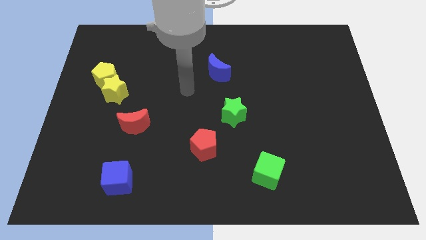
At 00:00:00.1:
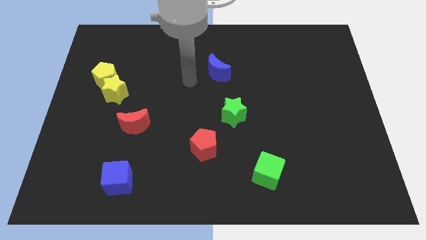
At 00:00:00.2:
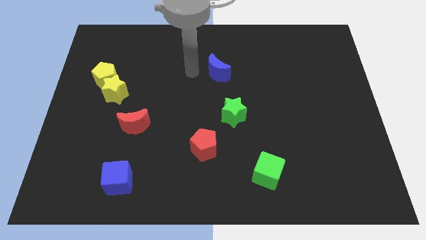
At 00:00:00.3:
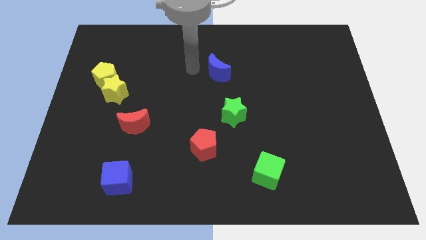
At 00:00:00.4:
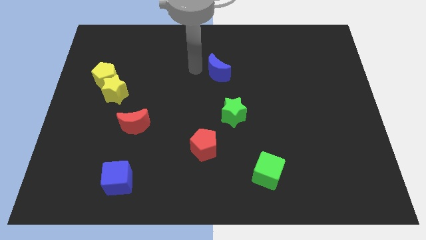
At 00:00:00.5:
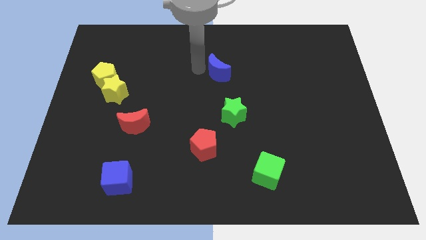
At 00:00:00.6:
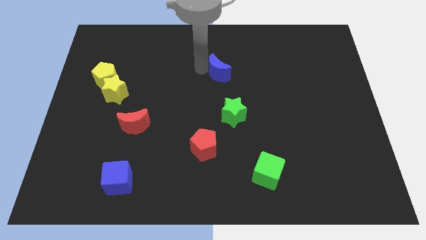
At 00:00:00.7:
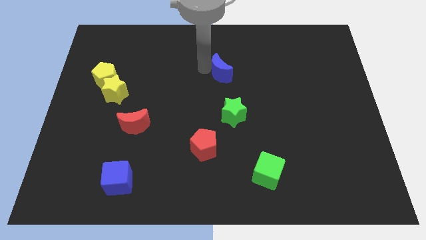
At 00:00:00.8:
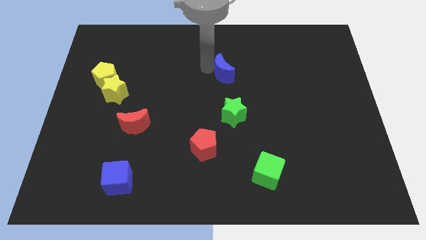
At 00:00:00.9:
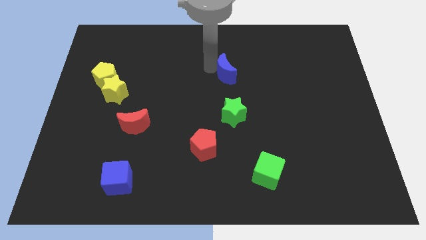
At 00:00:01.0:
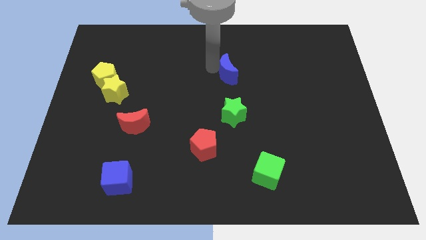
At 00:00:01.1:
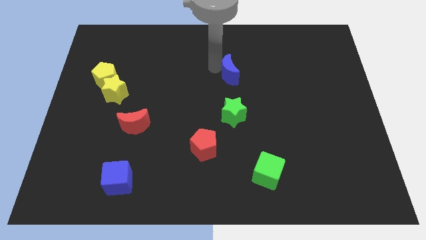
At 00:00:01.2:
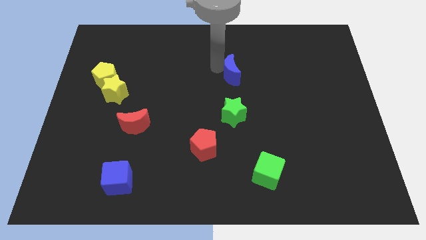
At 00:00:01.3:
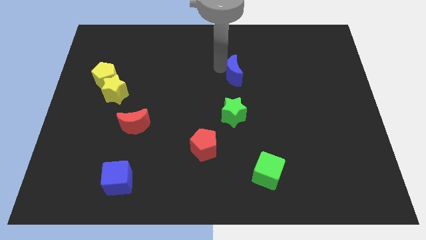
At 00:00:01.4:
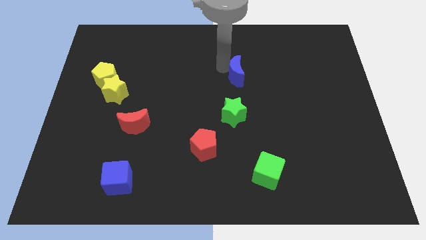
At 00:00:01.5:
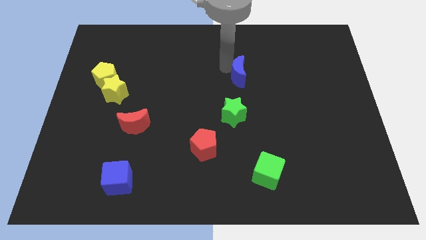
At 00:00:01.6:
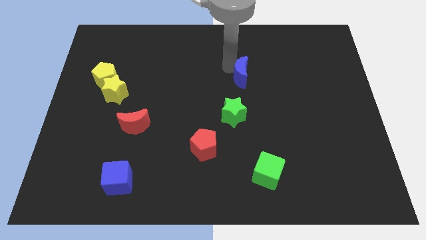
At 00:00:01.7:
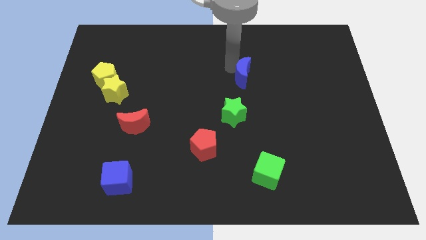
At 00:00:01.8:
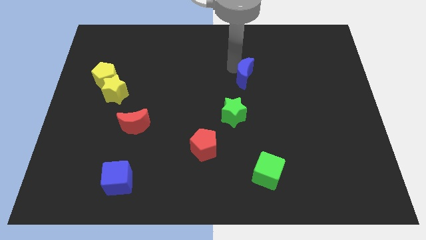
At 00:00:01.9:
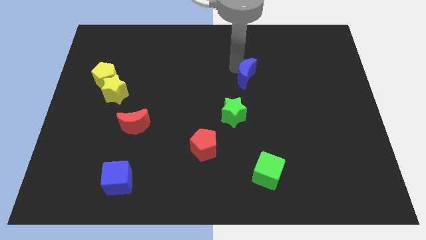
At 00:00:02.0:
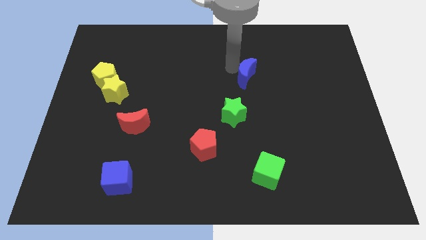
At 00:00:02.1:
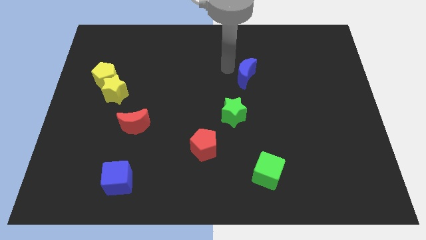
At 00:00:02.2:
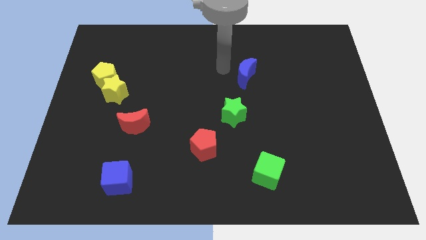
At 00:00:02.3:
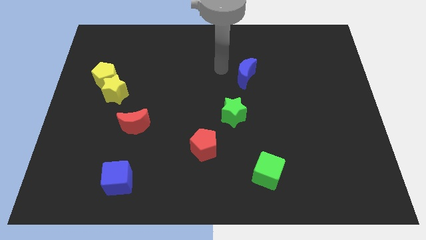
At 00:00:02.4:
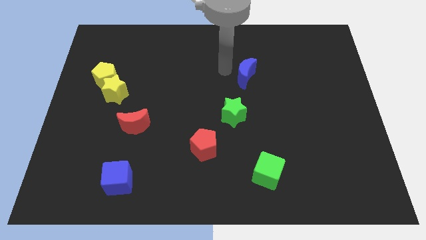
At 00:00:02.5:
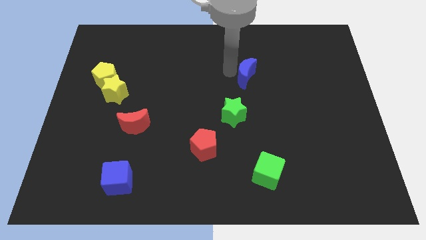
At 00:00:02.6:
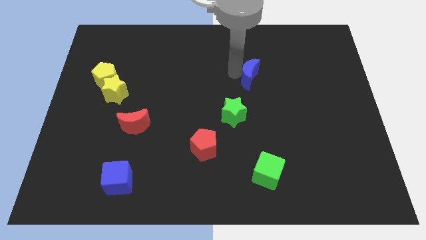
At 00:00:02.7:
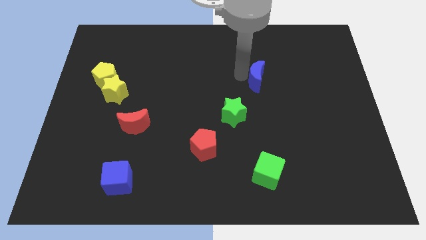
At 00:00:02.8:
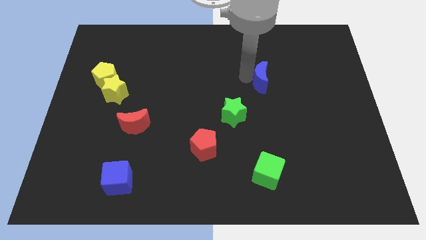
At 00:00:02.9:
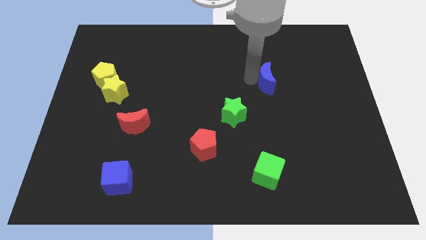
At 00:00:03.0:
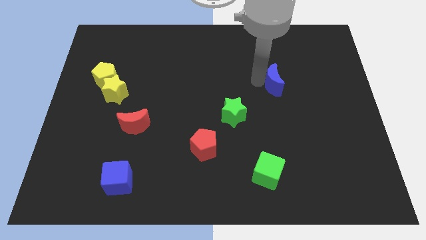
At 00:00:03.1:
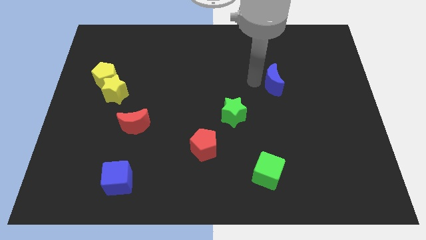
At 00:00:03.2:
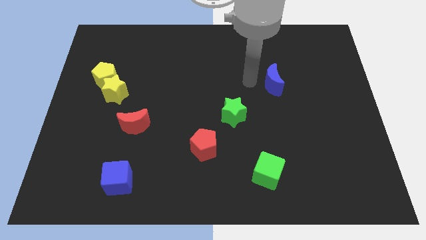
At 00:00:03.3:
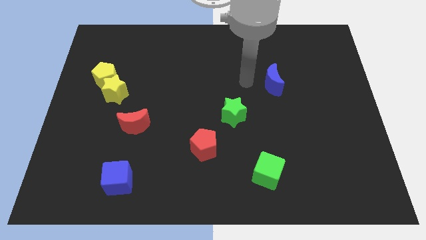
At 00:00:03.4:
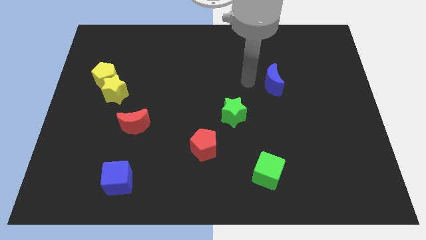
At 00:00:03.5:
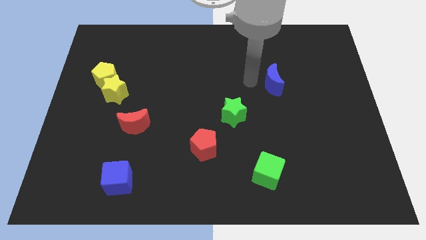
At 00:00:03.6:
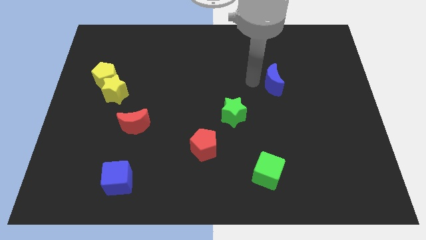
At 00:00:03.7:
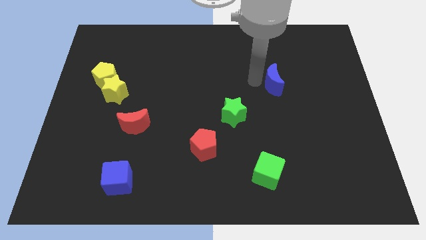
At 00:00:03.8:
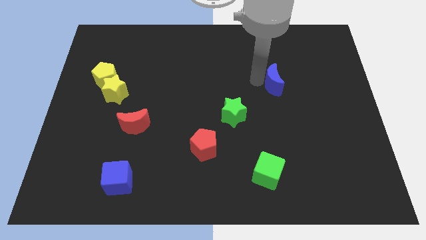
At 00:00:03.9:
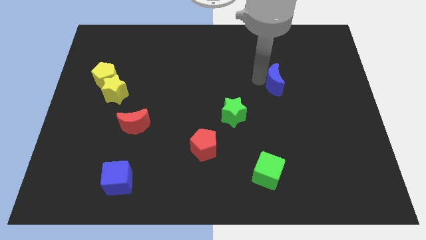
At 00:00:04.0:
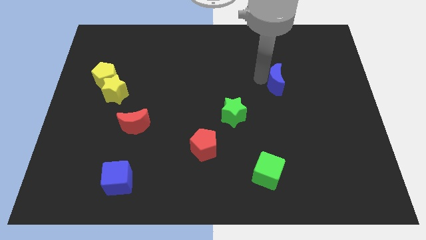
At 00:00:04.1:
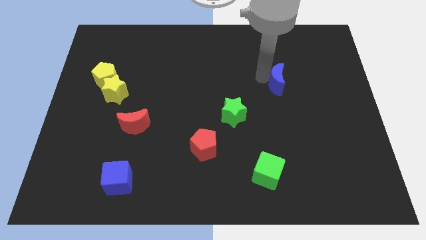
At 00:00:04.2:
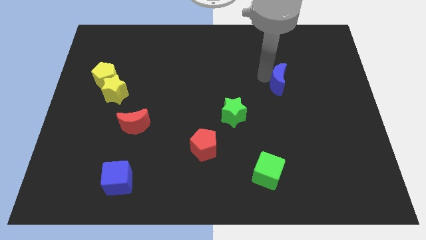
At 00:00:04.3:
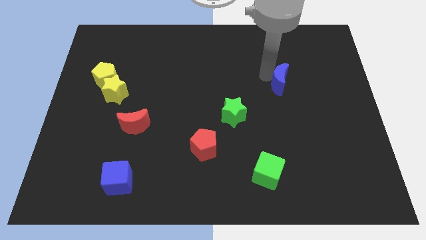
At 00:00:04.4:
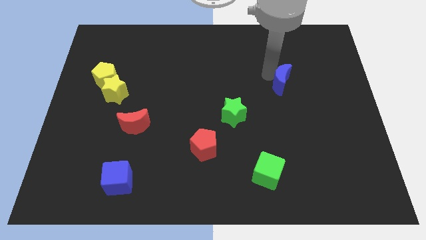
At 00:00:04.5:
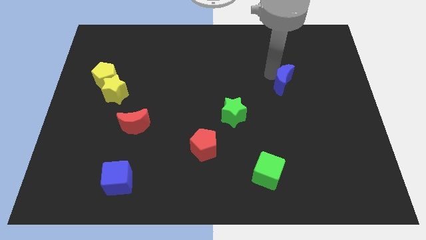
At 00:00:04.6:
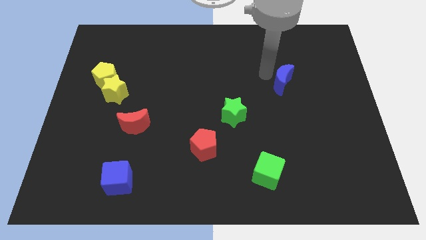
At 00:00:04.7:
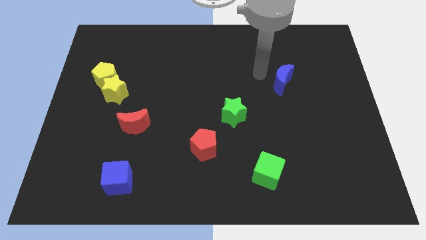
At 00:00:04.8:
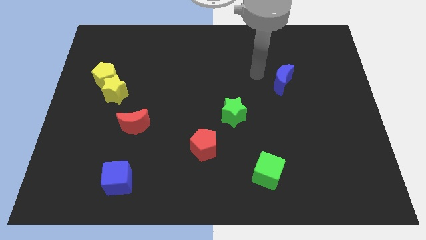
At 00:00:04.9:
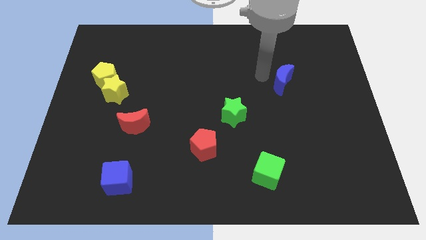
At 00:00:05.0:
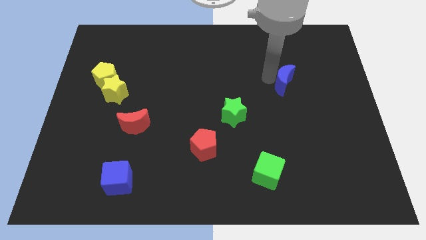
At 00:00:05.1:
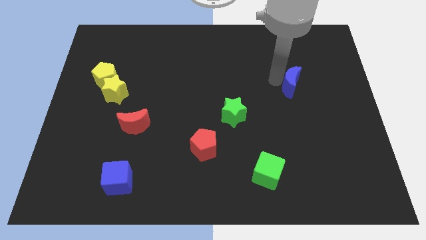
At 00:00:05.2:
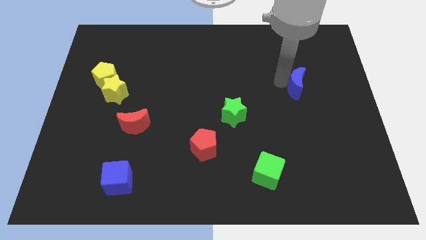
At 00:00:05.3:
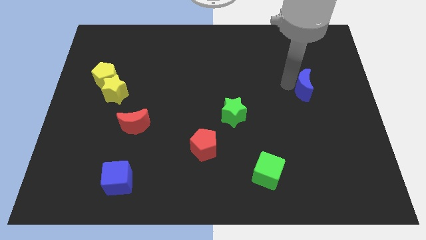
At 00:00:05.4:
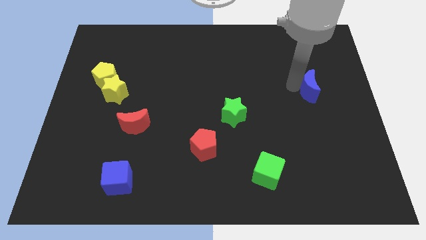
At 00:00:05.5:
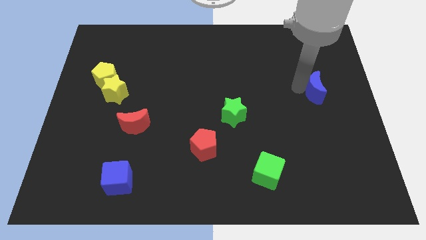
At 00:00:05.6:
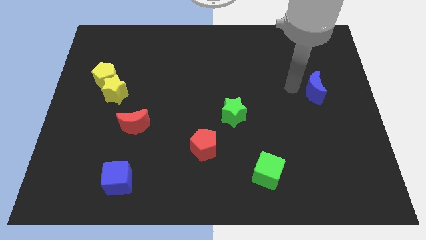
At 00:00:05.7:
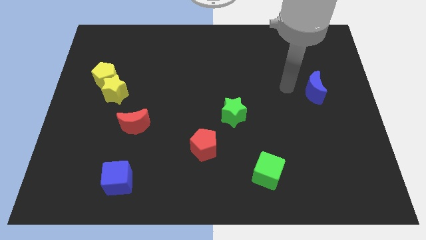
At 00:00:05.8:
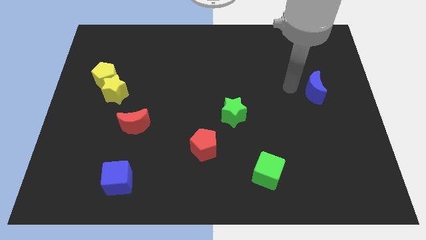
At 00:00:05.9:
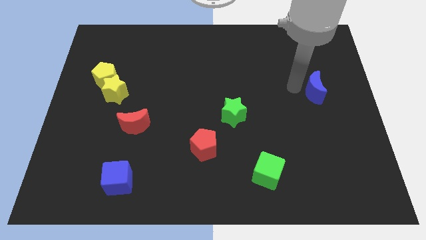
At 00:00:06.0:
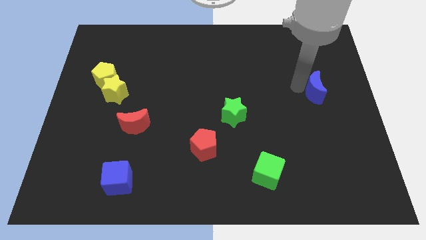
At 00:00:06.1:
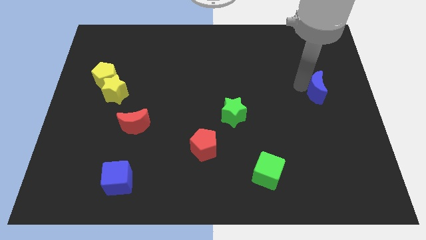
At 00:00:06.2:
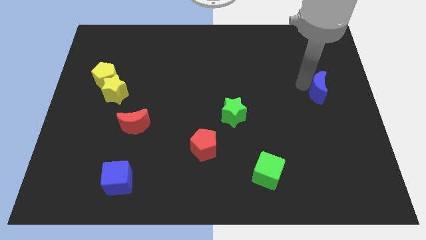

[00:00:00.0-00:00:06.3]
slide the blue moon to the center right

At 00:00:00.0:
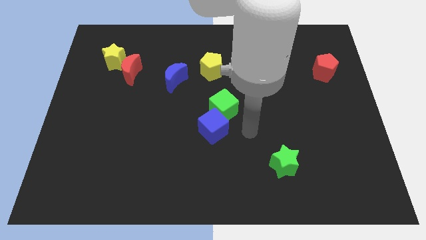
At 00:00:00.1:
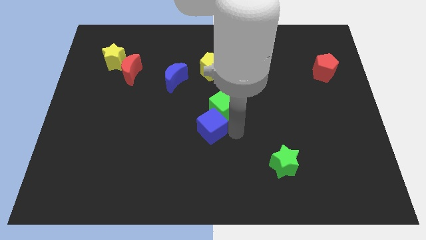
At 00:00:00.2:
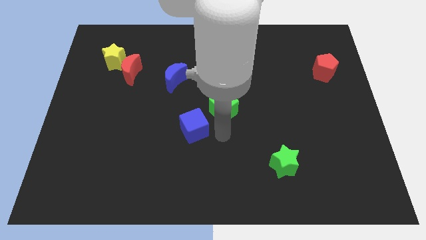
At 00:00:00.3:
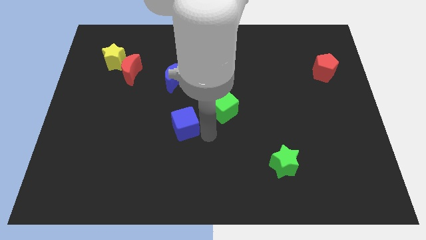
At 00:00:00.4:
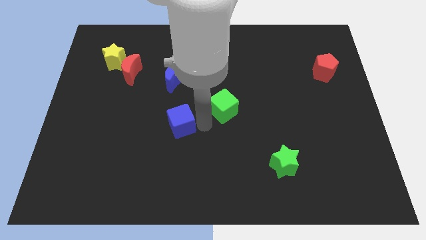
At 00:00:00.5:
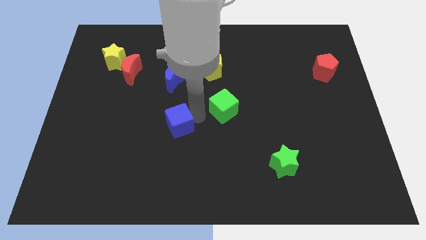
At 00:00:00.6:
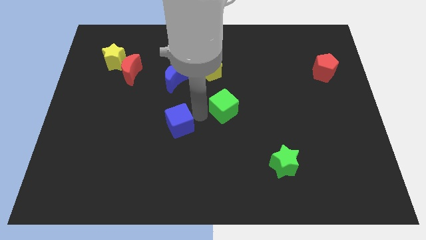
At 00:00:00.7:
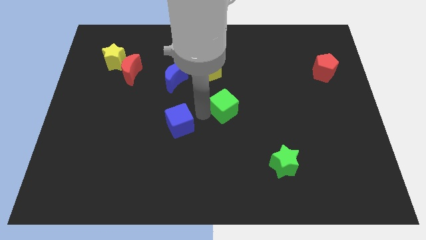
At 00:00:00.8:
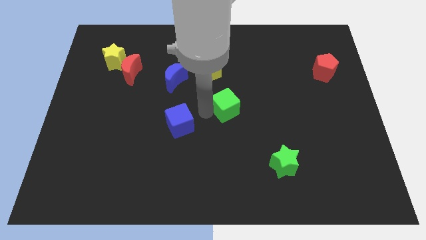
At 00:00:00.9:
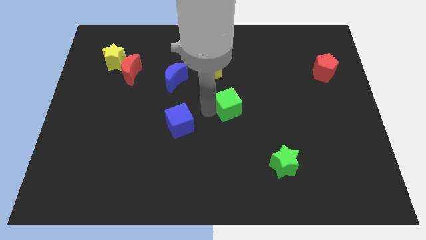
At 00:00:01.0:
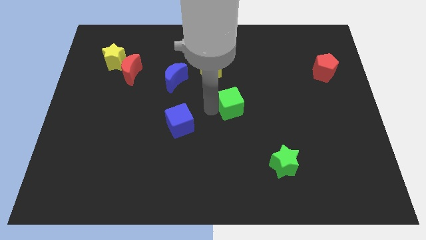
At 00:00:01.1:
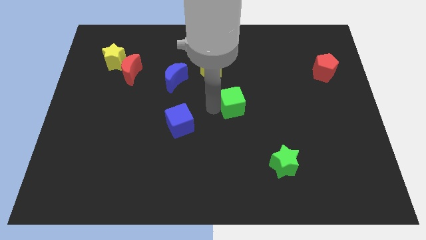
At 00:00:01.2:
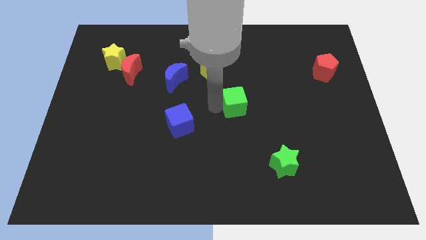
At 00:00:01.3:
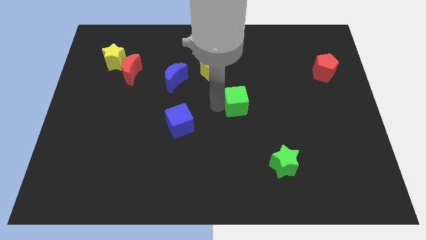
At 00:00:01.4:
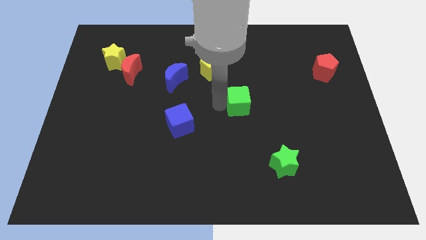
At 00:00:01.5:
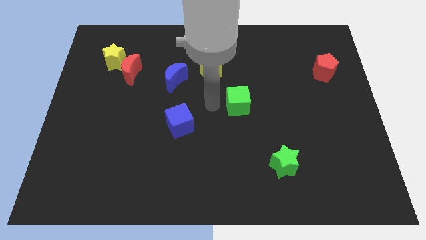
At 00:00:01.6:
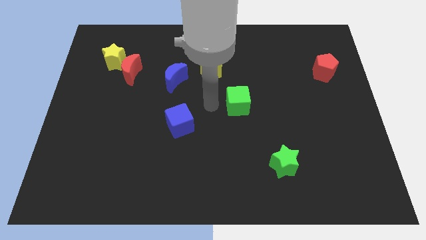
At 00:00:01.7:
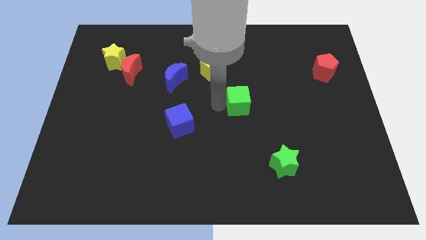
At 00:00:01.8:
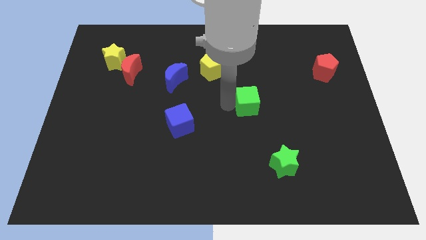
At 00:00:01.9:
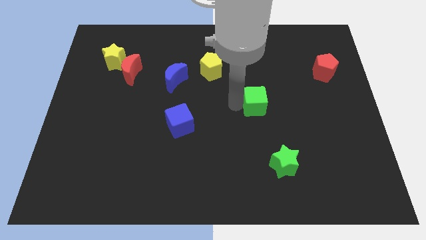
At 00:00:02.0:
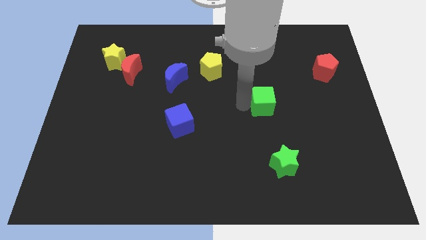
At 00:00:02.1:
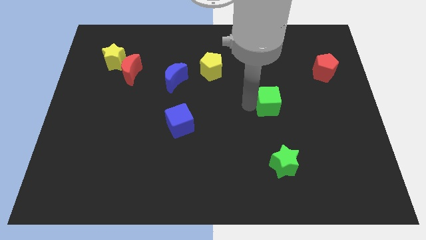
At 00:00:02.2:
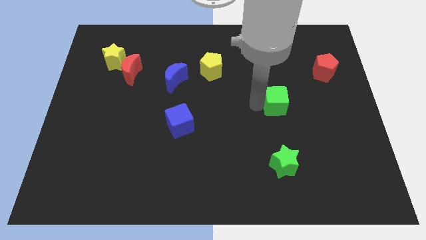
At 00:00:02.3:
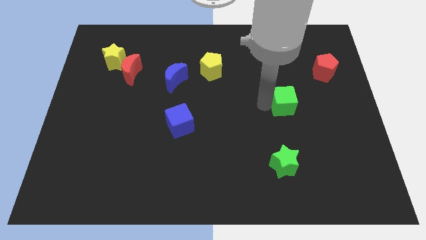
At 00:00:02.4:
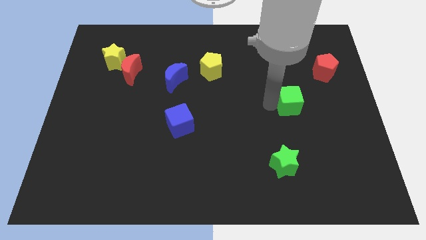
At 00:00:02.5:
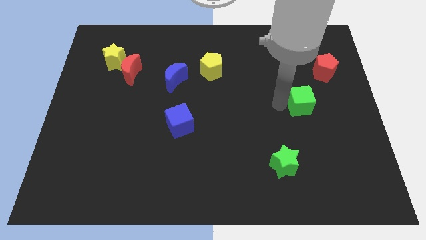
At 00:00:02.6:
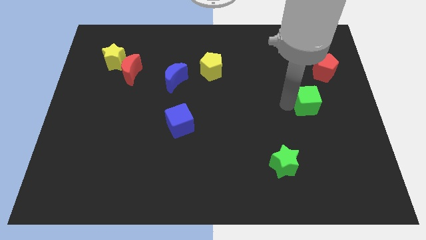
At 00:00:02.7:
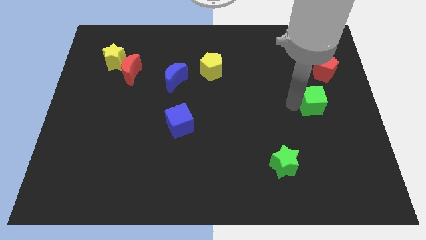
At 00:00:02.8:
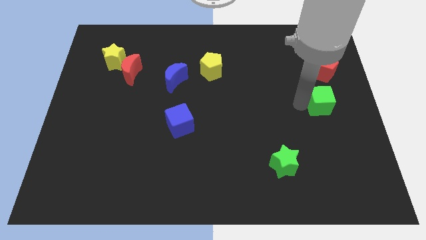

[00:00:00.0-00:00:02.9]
put the green cube to the right side
